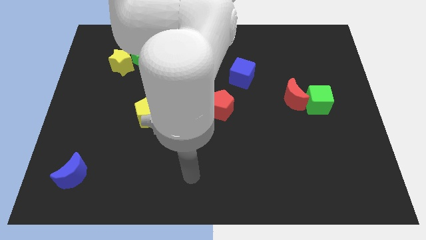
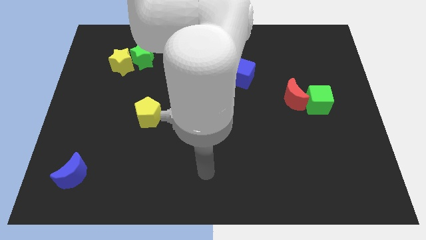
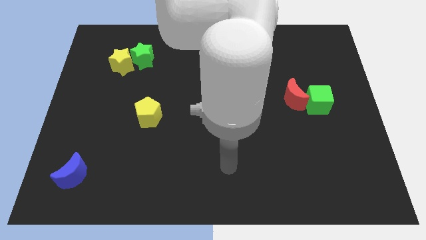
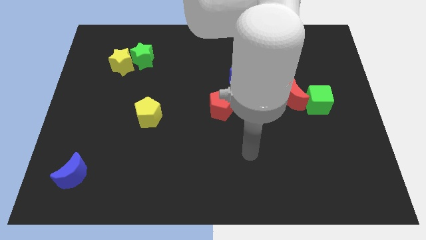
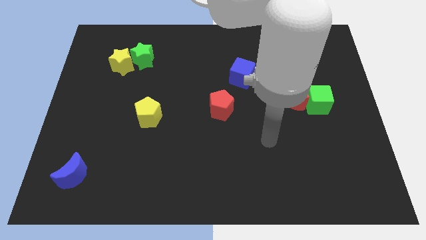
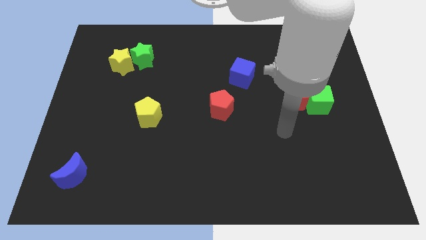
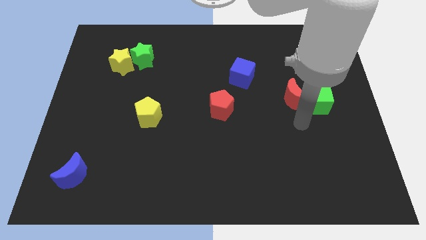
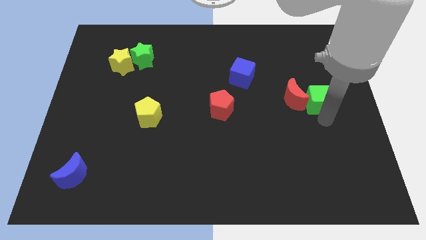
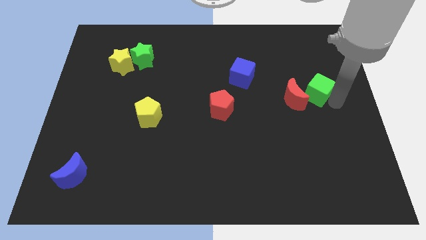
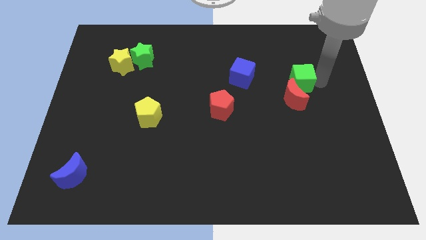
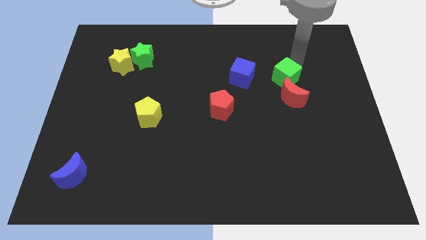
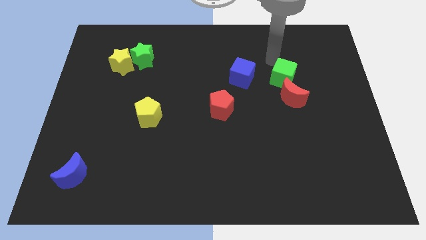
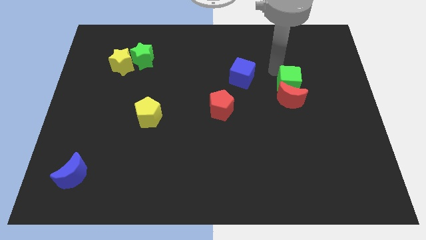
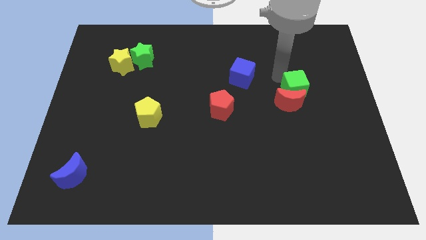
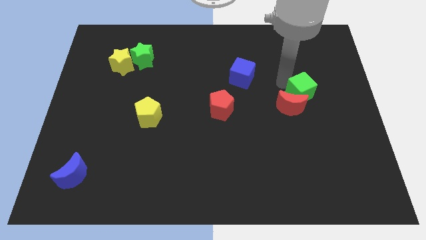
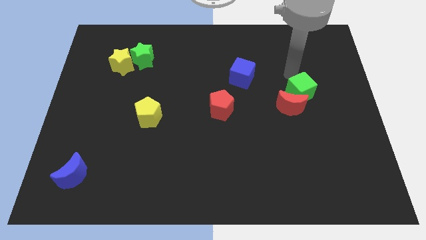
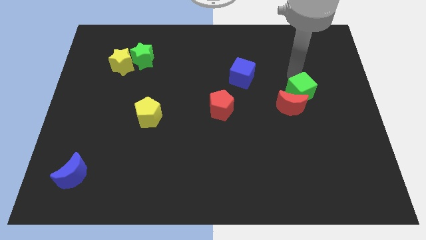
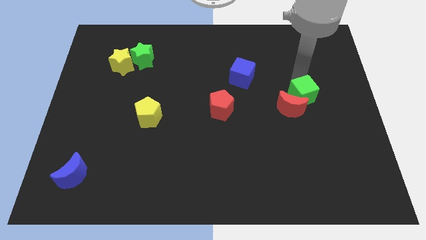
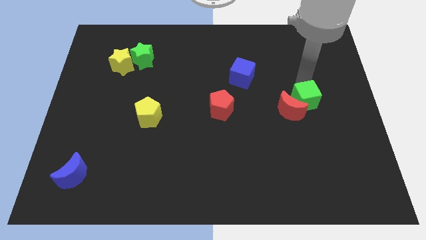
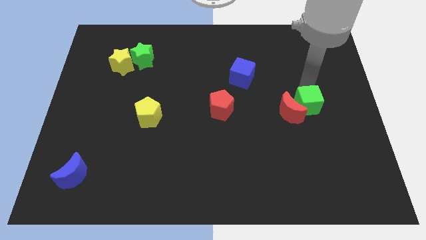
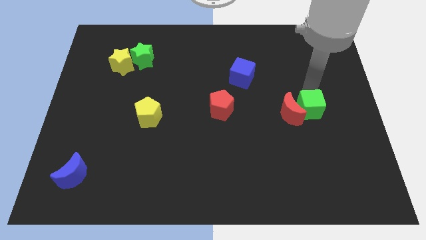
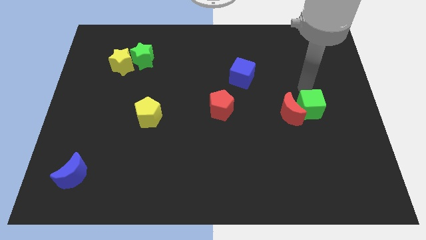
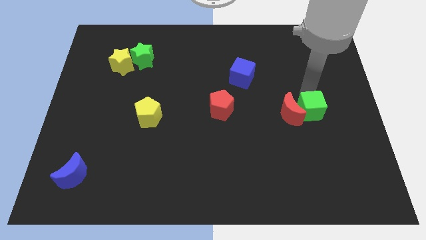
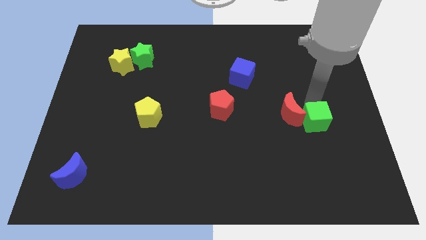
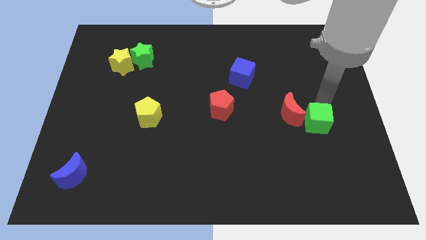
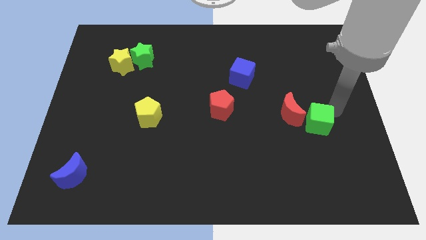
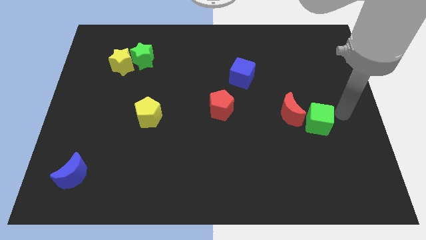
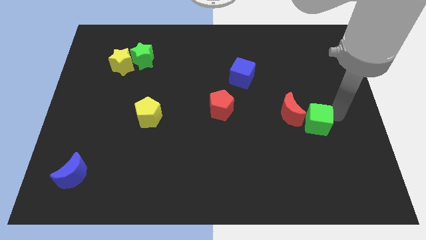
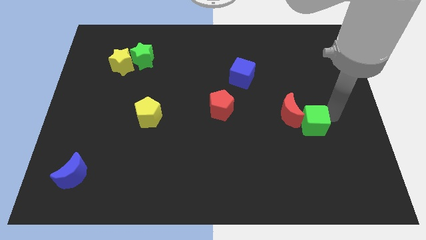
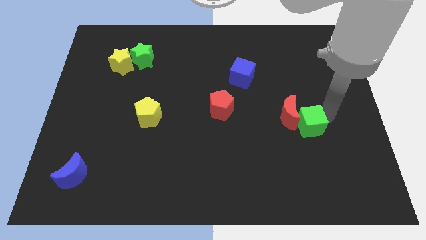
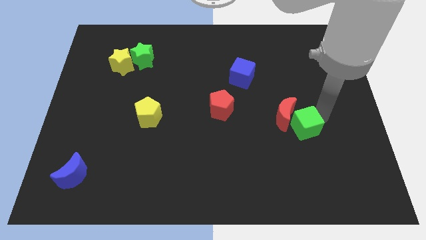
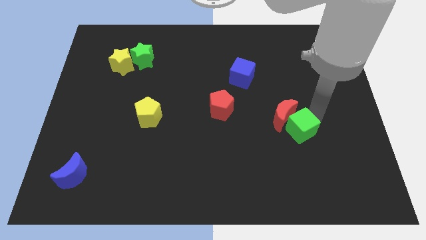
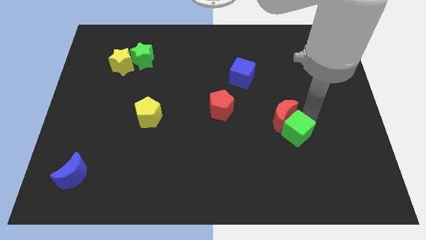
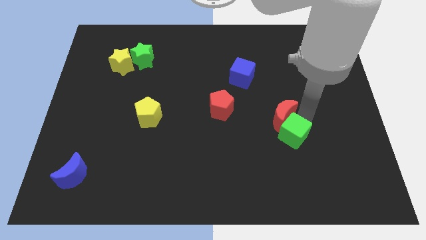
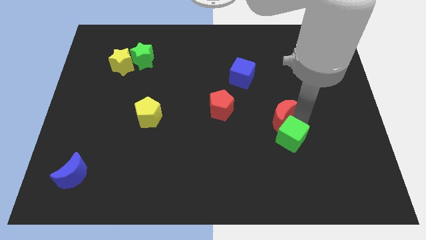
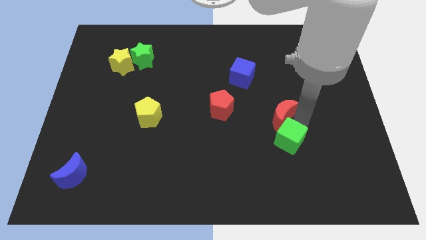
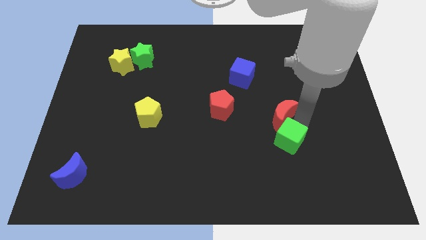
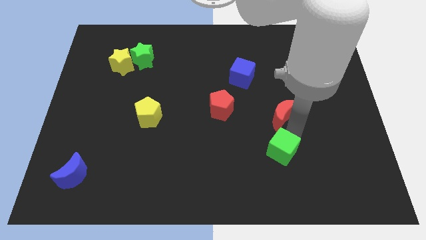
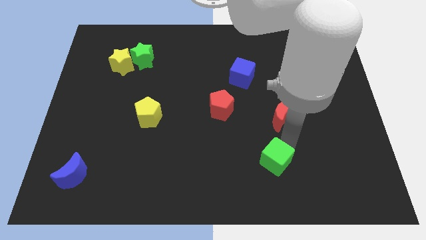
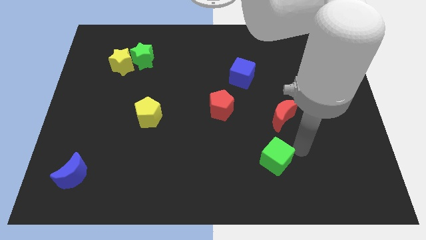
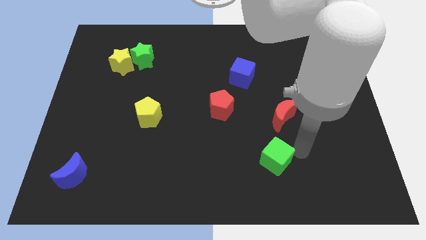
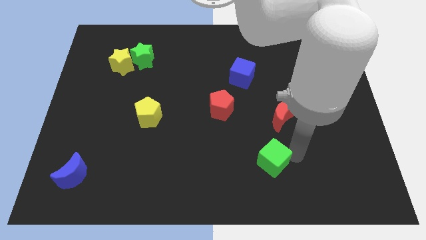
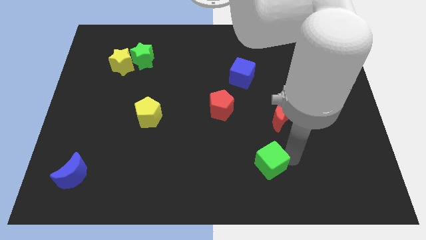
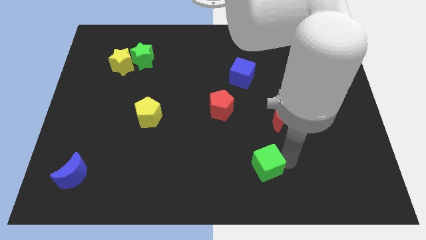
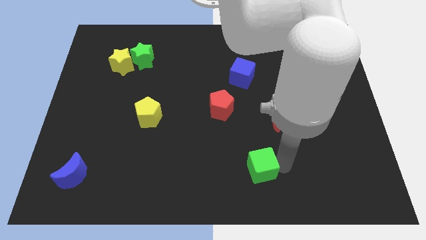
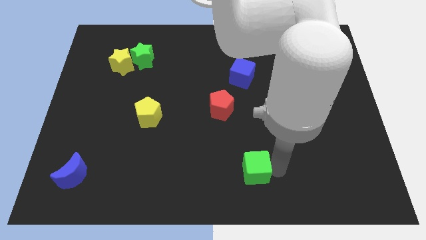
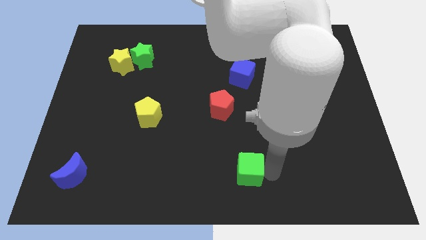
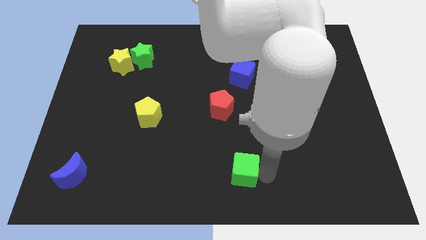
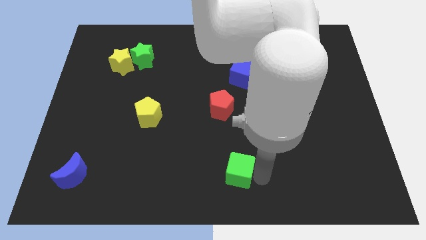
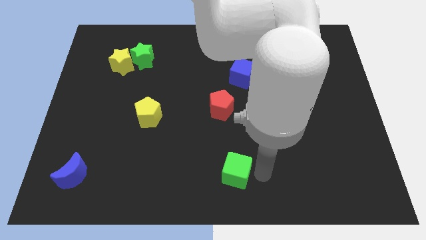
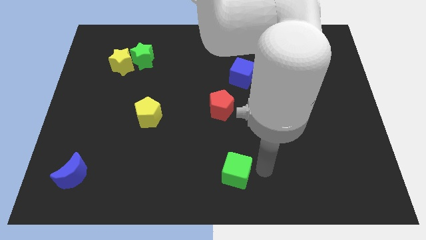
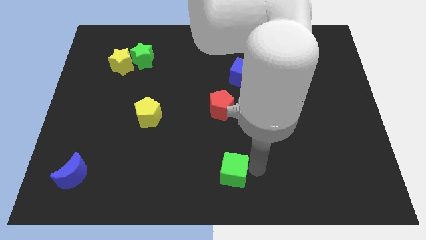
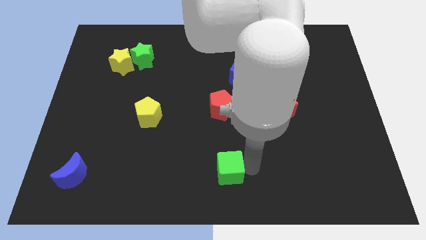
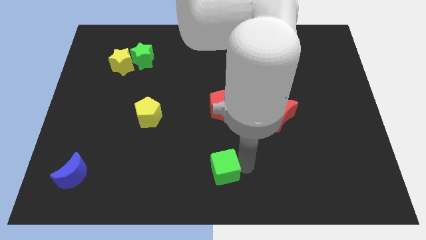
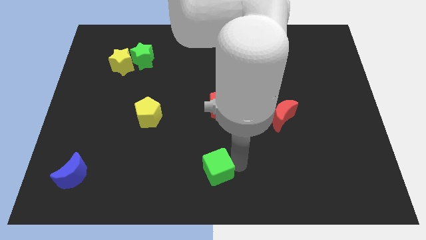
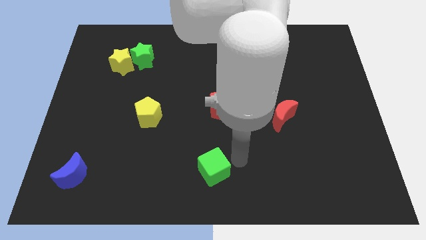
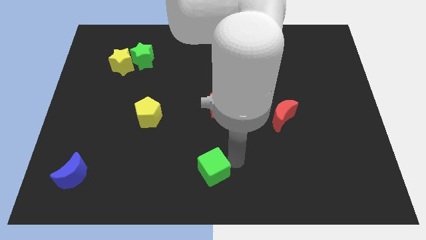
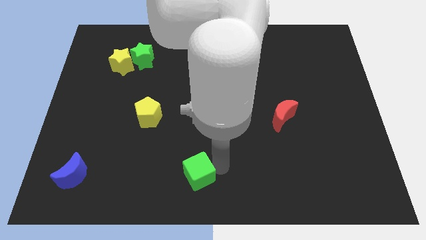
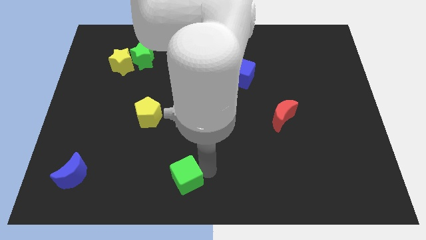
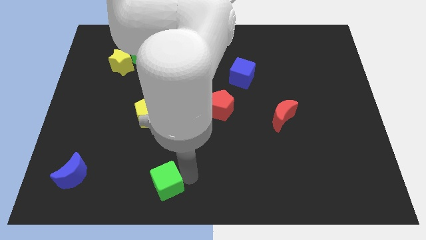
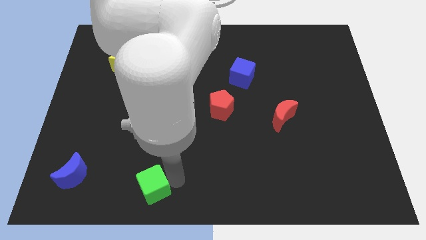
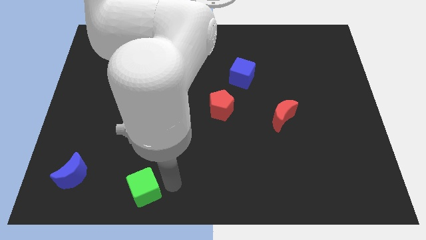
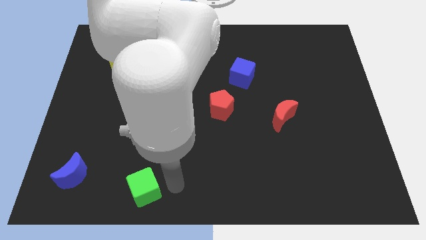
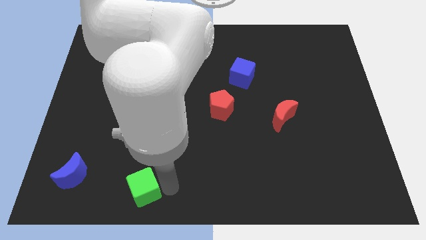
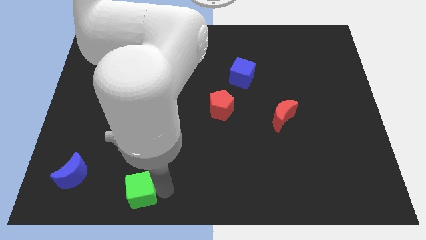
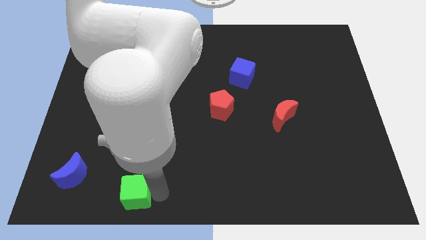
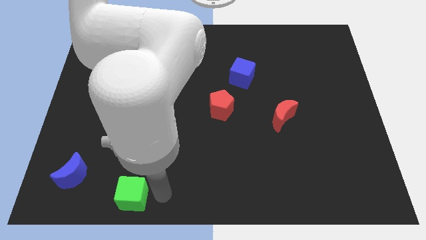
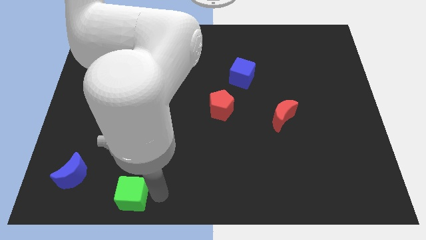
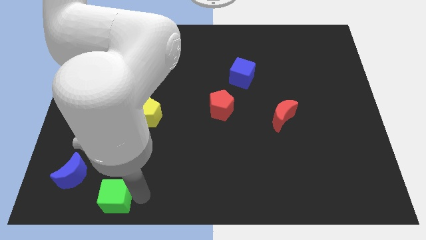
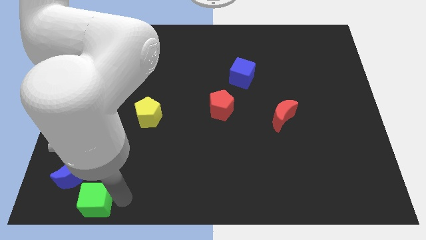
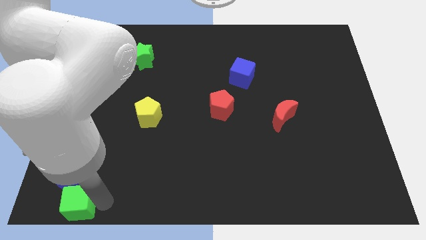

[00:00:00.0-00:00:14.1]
slide the green cube to the bottom left corner

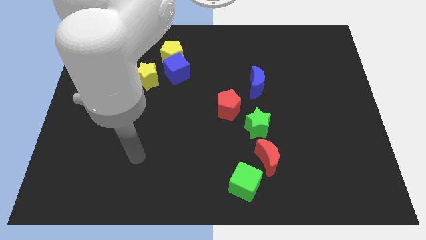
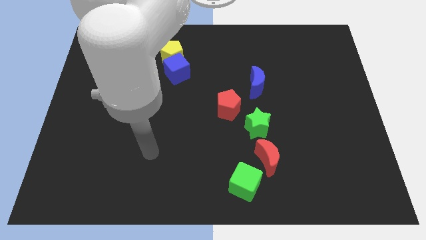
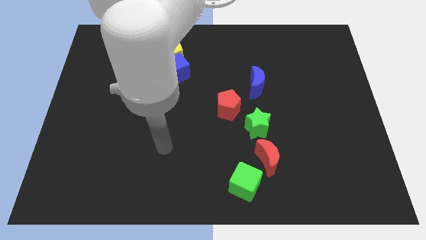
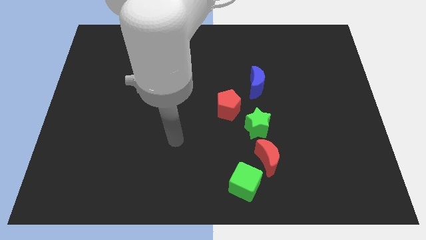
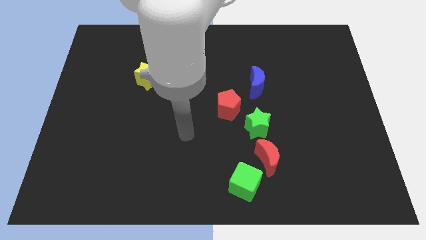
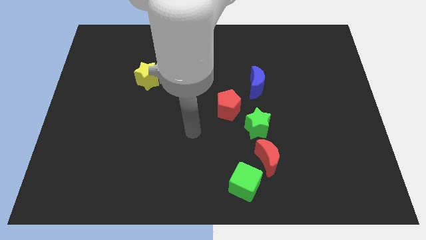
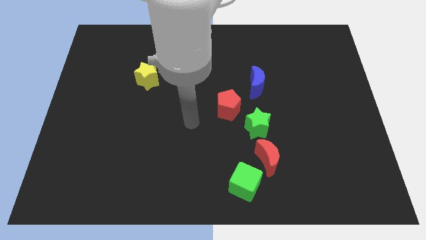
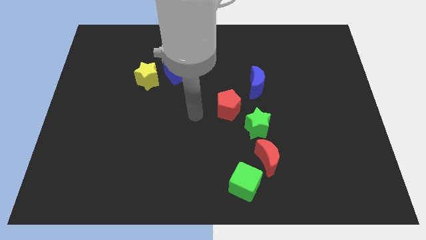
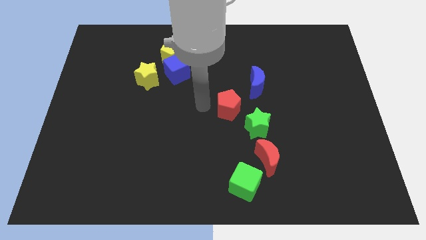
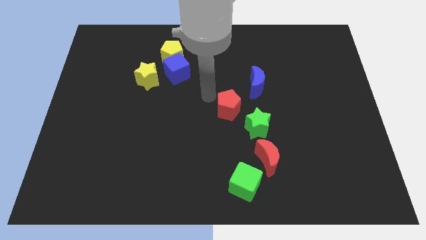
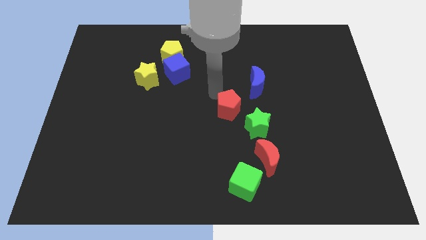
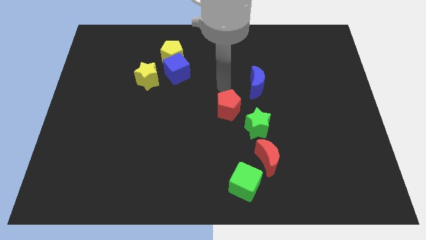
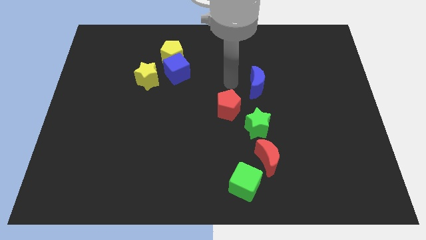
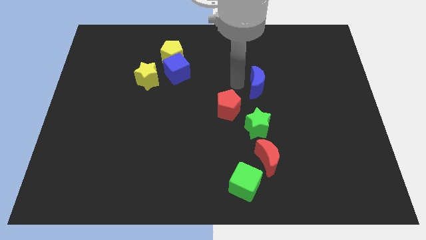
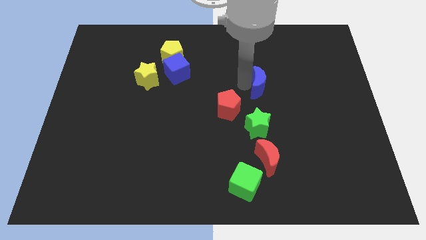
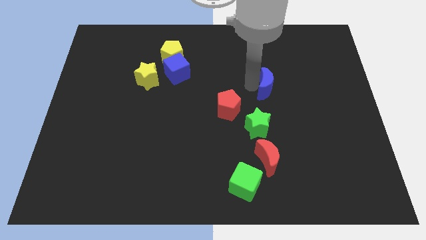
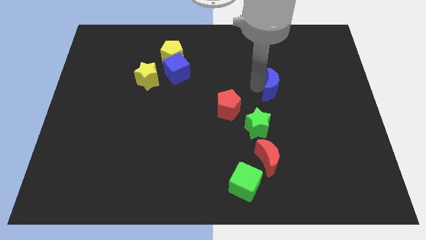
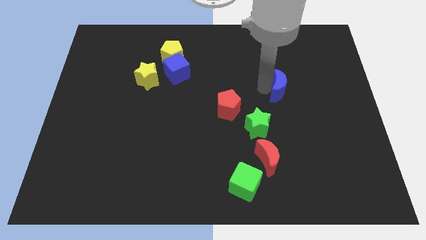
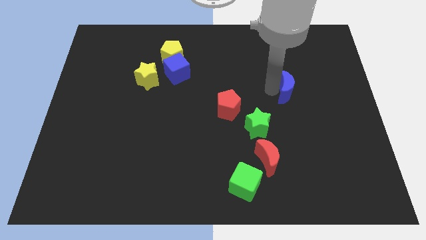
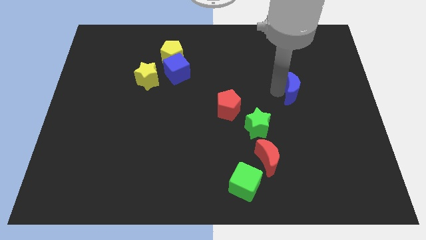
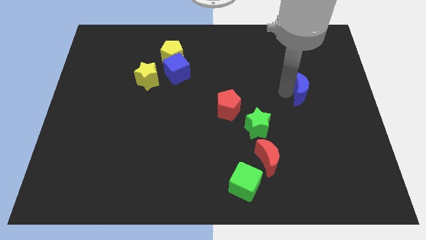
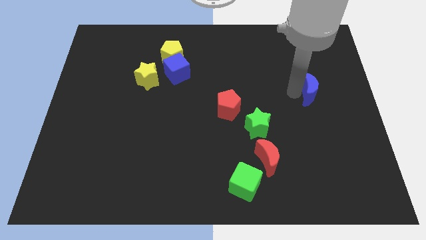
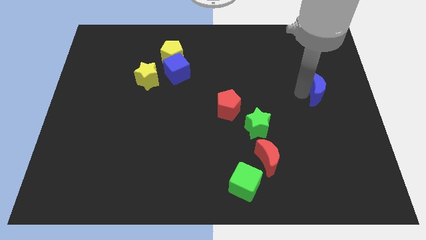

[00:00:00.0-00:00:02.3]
move the blue moon to the center right
